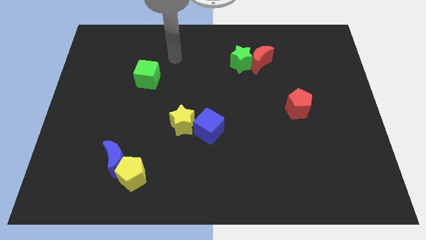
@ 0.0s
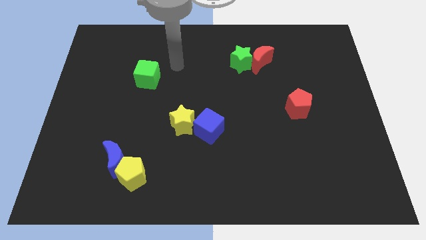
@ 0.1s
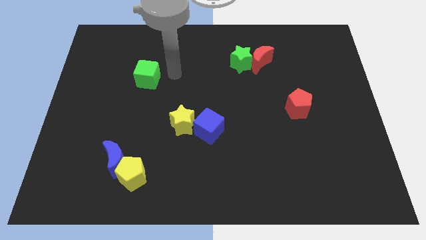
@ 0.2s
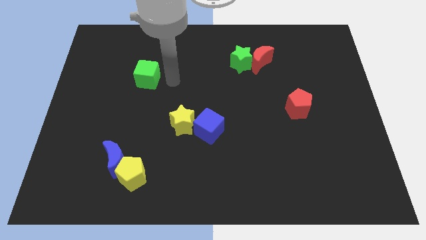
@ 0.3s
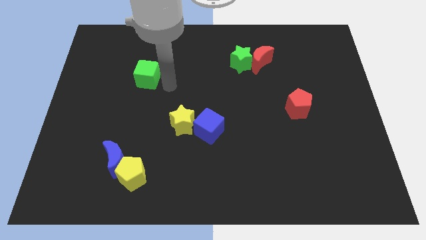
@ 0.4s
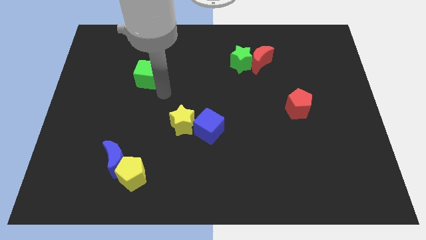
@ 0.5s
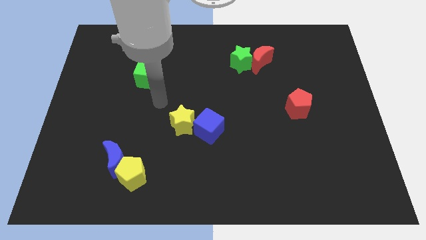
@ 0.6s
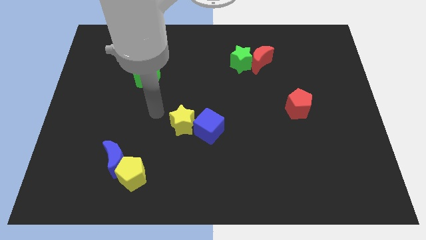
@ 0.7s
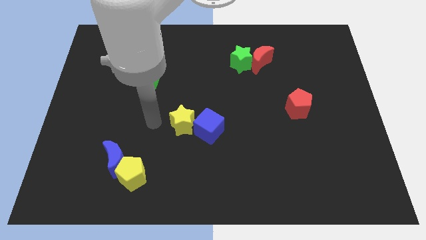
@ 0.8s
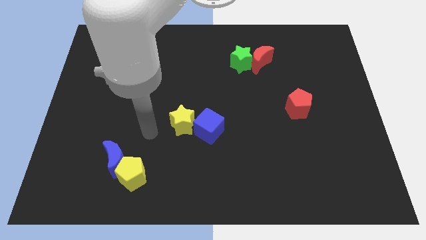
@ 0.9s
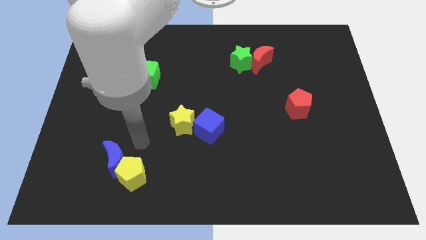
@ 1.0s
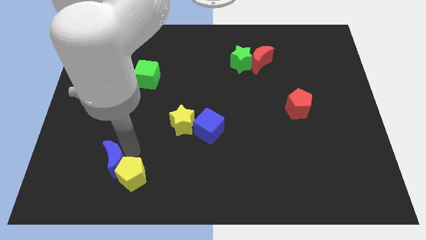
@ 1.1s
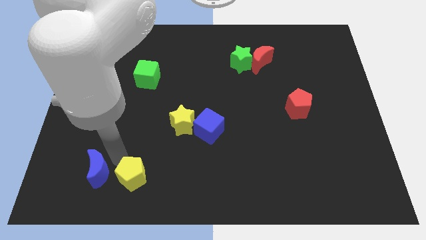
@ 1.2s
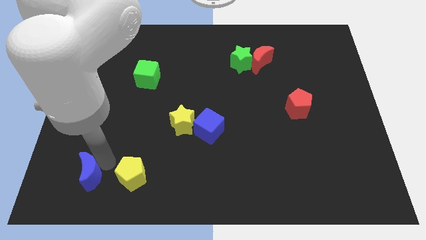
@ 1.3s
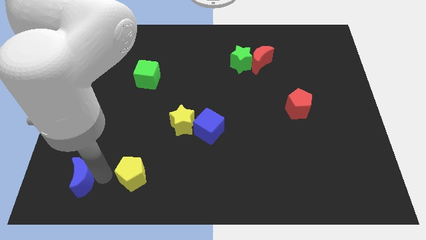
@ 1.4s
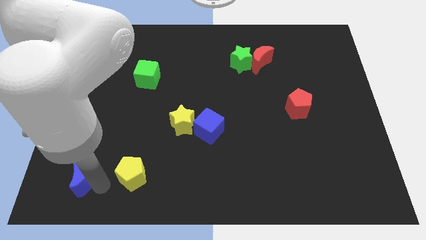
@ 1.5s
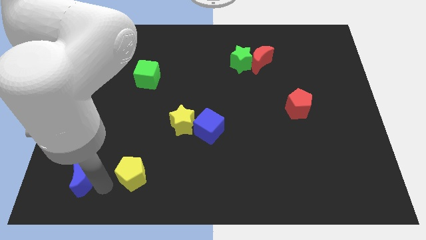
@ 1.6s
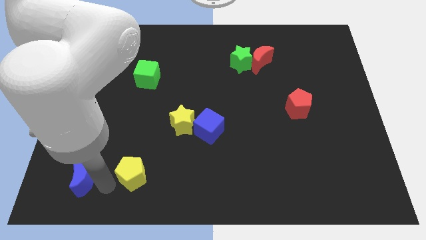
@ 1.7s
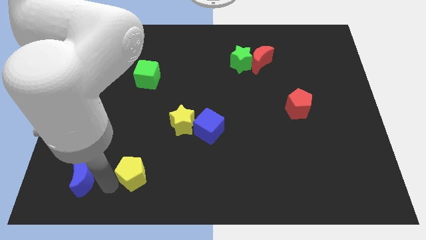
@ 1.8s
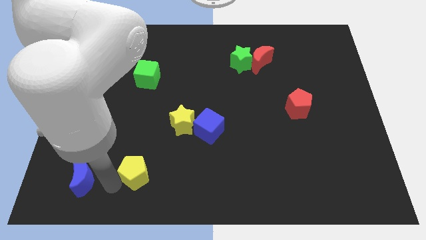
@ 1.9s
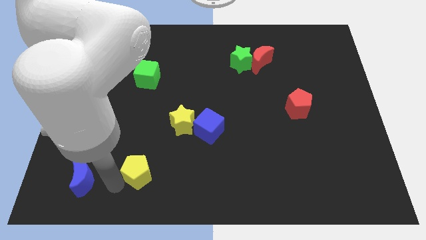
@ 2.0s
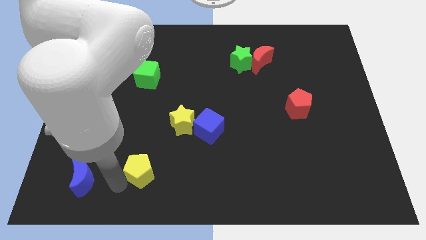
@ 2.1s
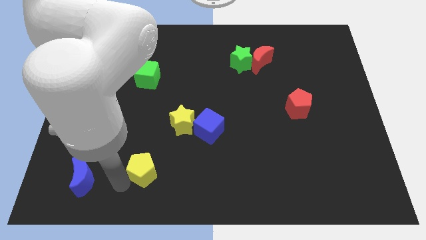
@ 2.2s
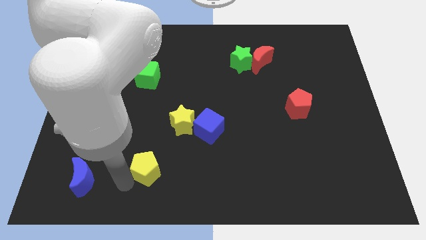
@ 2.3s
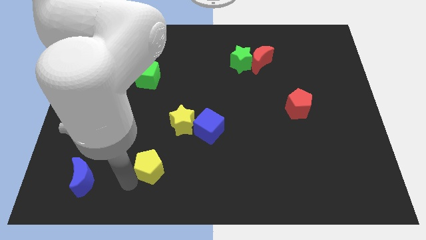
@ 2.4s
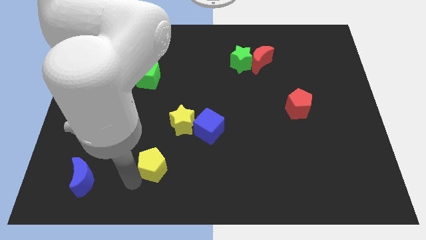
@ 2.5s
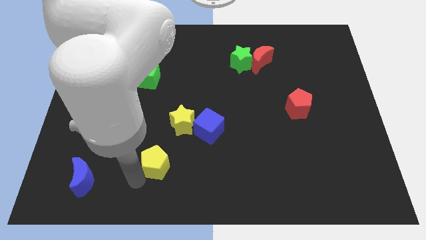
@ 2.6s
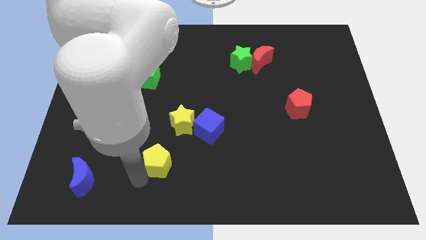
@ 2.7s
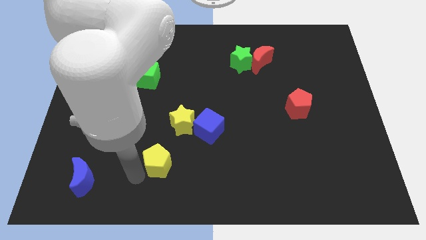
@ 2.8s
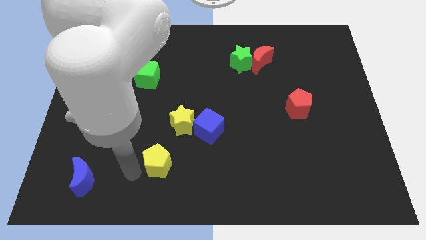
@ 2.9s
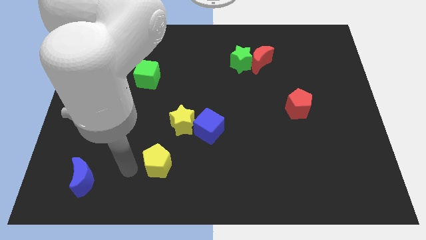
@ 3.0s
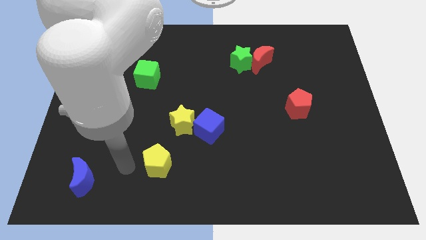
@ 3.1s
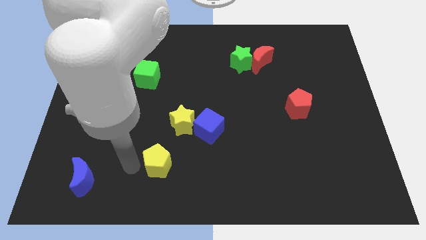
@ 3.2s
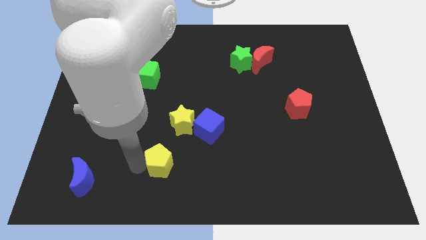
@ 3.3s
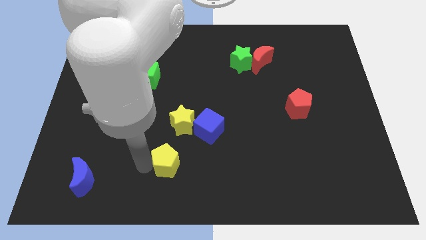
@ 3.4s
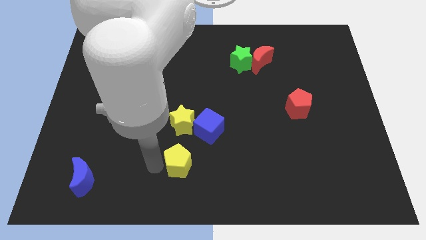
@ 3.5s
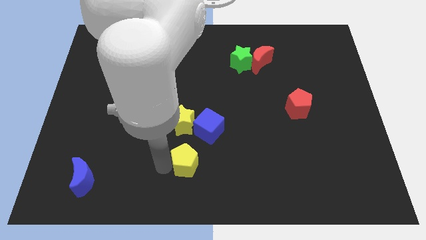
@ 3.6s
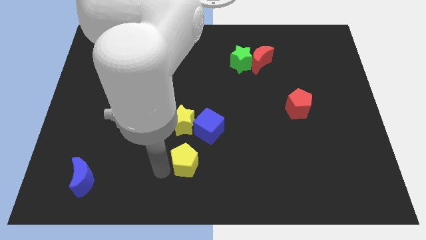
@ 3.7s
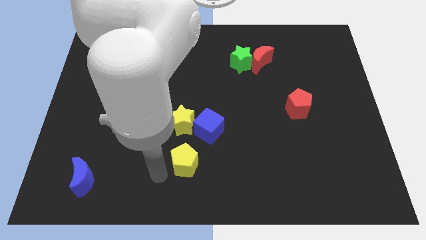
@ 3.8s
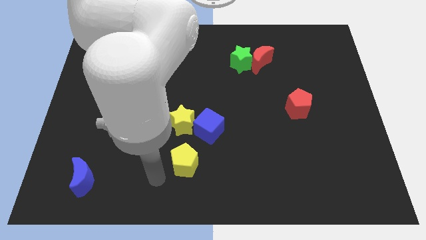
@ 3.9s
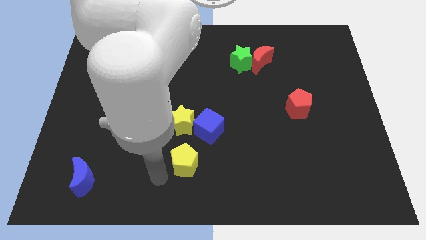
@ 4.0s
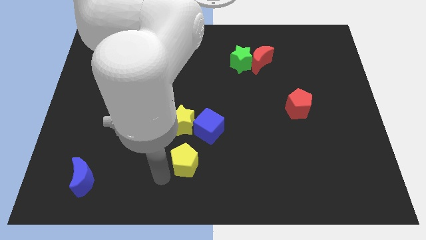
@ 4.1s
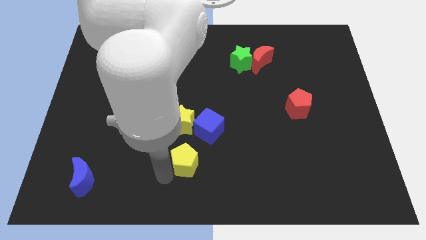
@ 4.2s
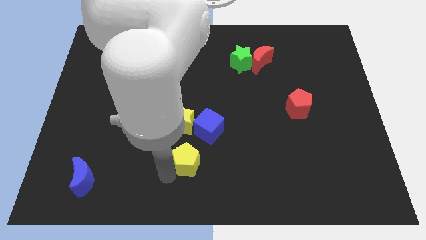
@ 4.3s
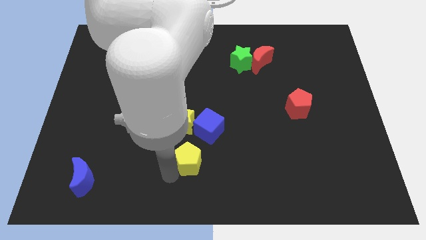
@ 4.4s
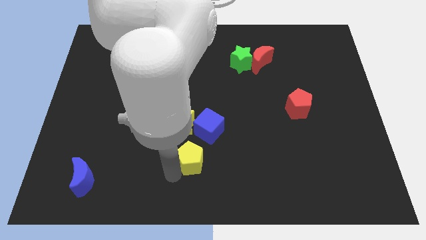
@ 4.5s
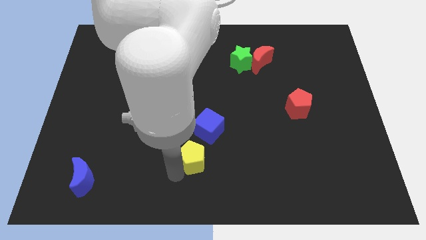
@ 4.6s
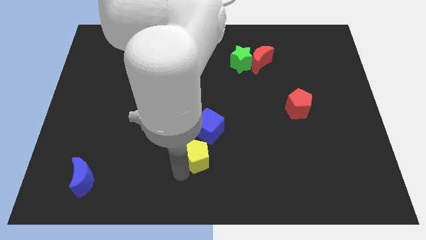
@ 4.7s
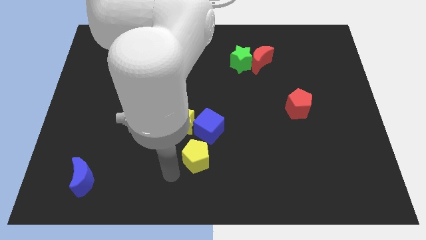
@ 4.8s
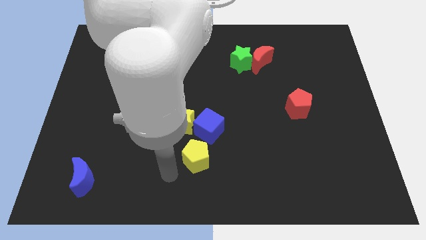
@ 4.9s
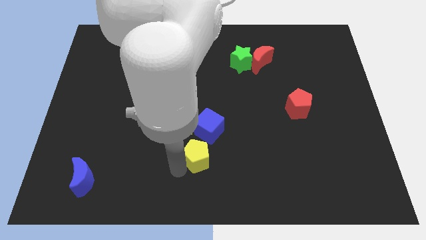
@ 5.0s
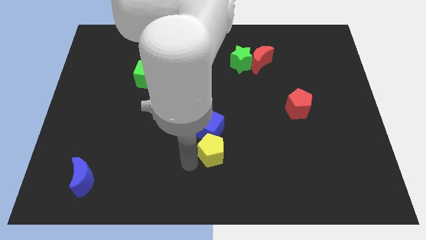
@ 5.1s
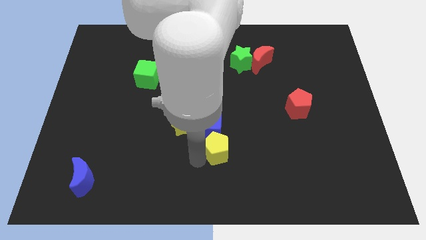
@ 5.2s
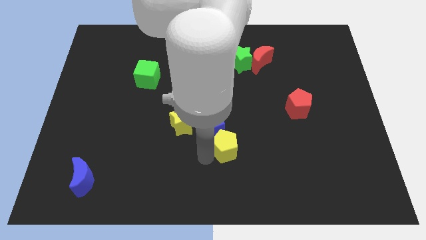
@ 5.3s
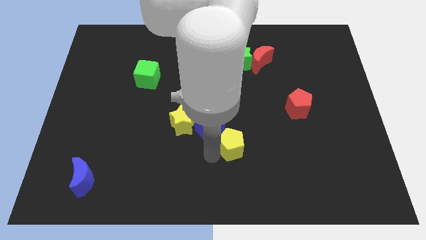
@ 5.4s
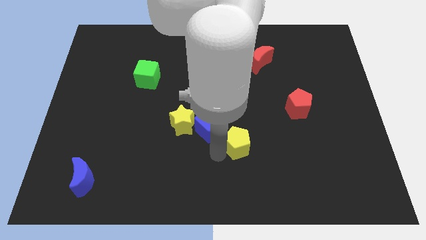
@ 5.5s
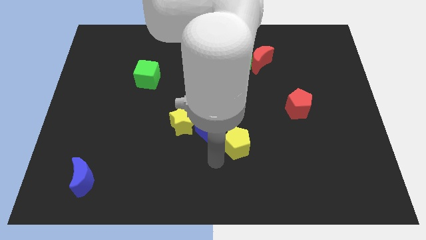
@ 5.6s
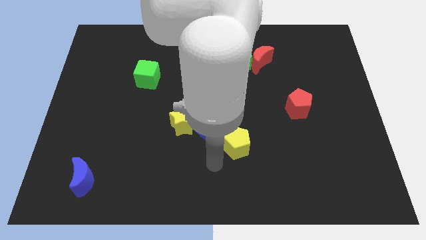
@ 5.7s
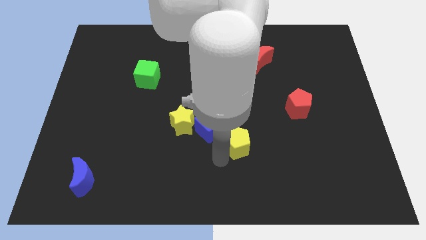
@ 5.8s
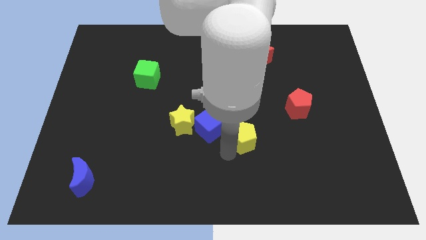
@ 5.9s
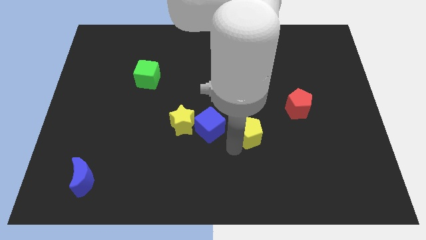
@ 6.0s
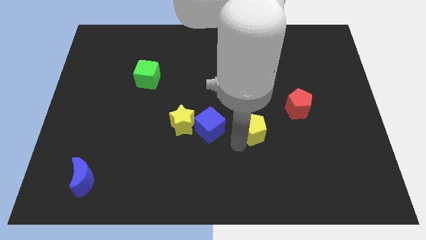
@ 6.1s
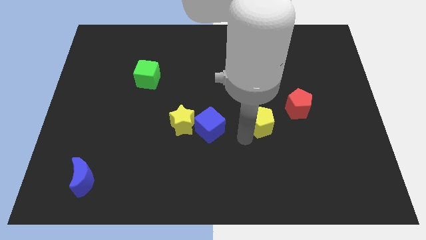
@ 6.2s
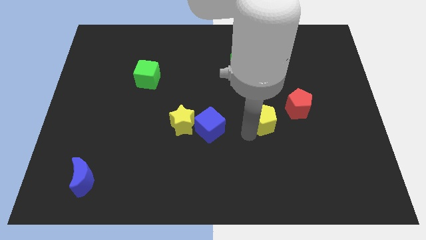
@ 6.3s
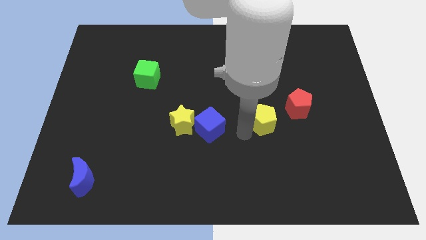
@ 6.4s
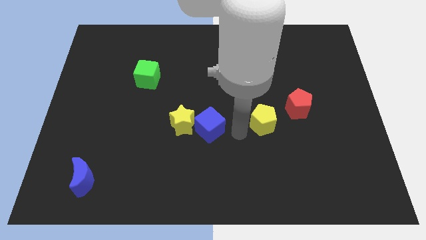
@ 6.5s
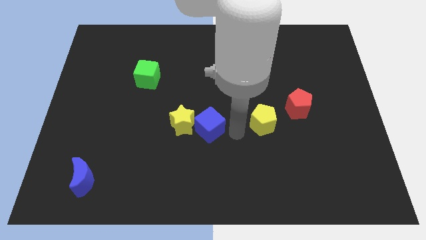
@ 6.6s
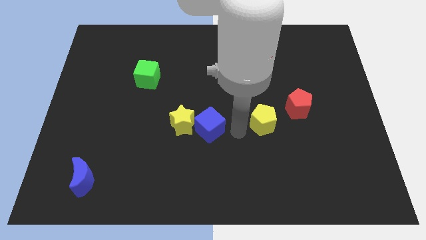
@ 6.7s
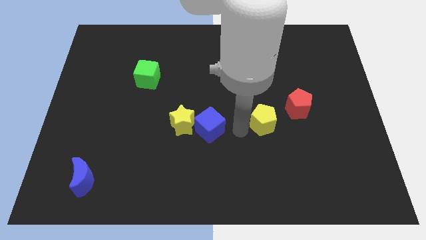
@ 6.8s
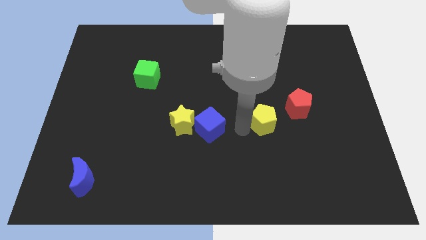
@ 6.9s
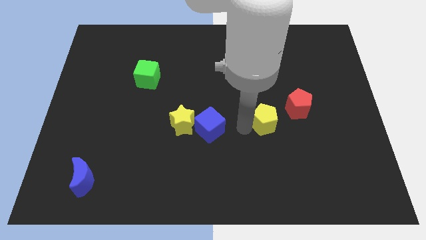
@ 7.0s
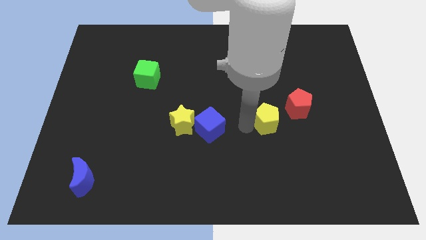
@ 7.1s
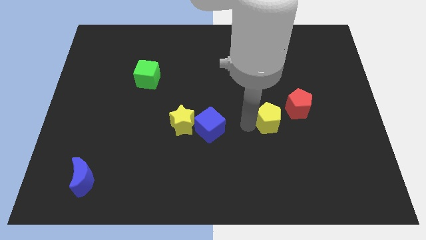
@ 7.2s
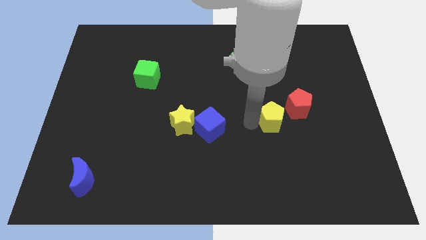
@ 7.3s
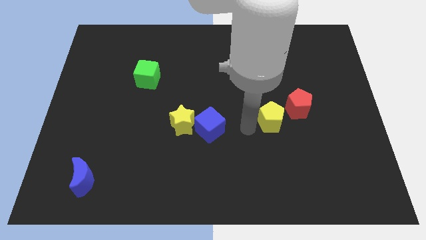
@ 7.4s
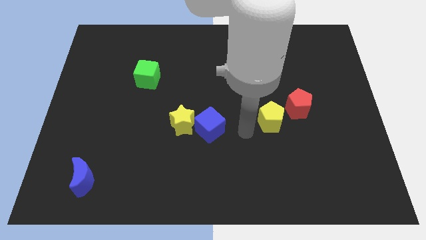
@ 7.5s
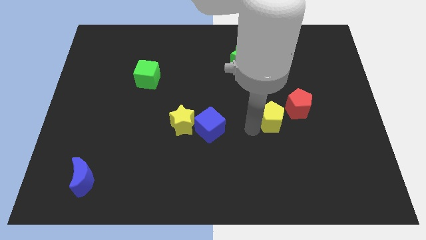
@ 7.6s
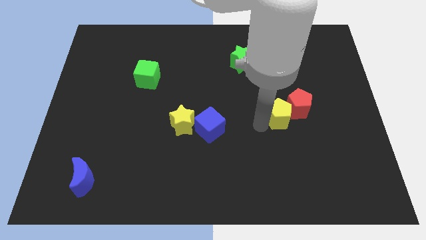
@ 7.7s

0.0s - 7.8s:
put the yellow pentagon next to the red pentagon
